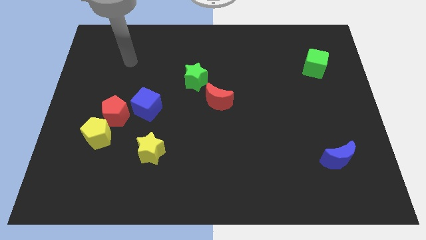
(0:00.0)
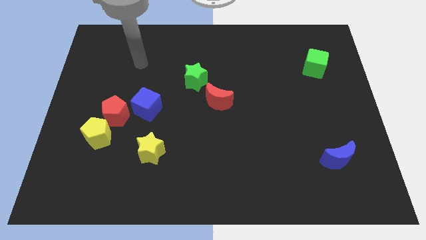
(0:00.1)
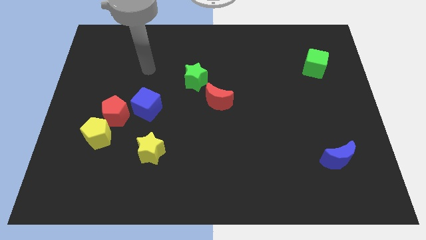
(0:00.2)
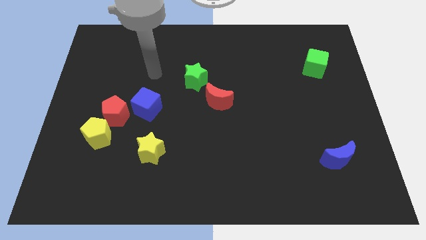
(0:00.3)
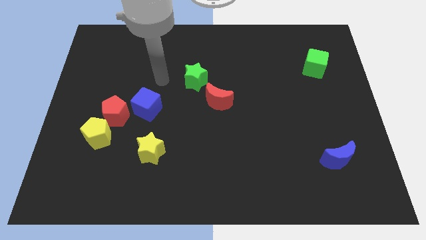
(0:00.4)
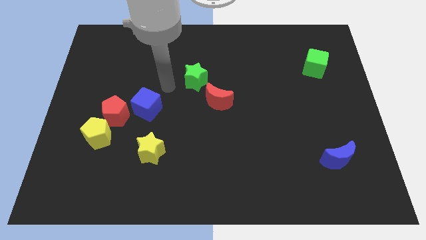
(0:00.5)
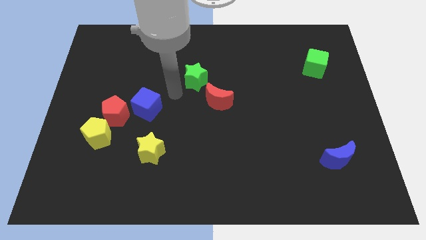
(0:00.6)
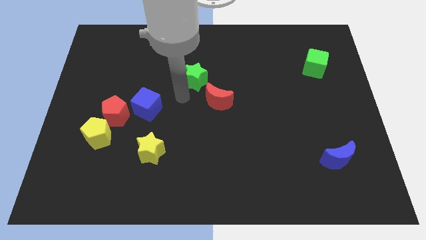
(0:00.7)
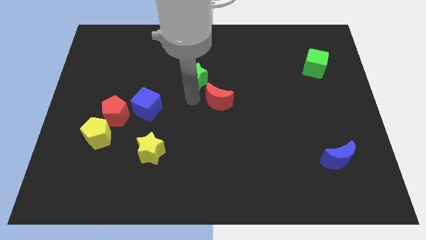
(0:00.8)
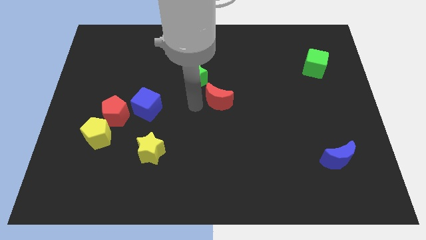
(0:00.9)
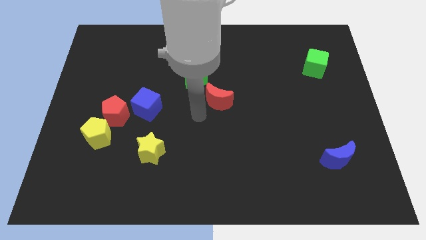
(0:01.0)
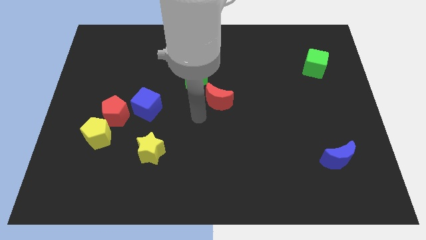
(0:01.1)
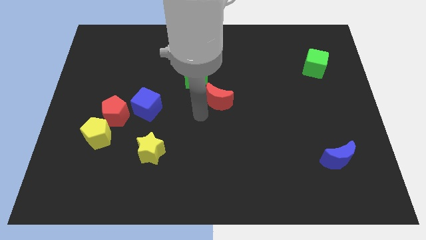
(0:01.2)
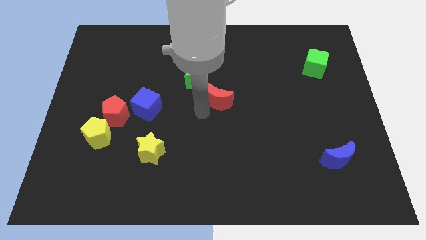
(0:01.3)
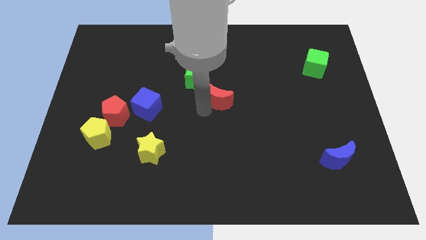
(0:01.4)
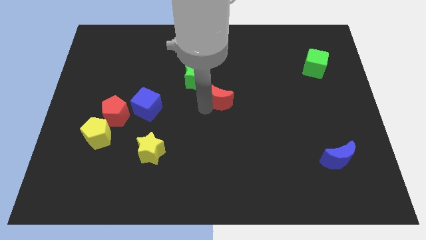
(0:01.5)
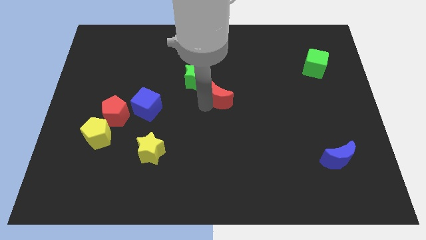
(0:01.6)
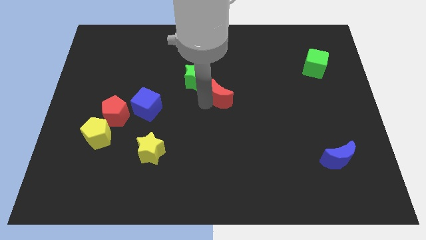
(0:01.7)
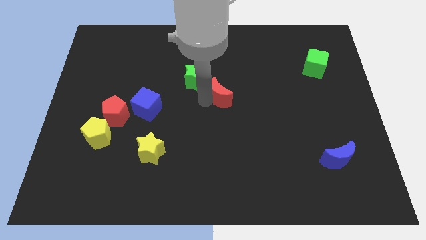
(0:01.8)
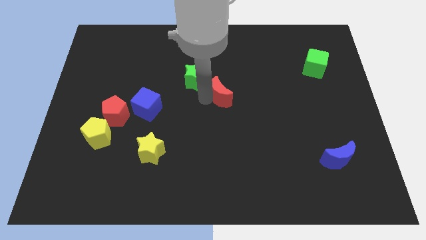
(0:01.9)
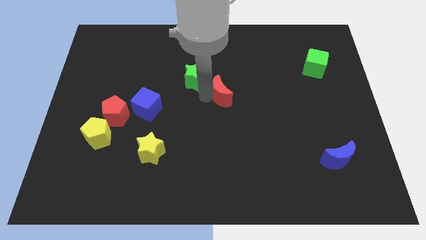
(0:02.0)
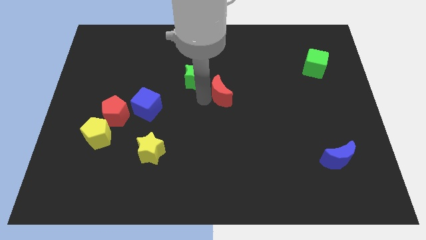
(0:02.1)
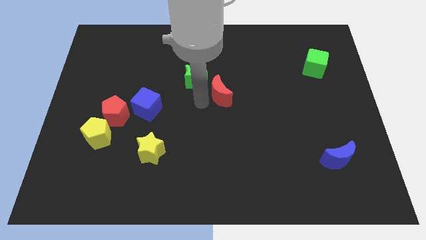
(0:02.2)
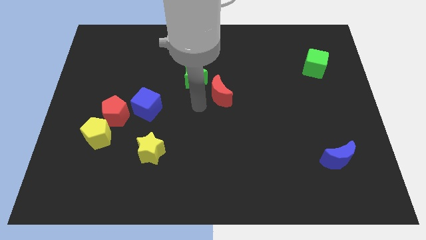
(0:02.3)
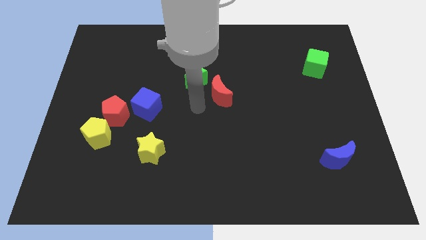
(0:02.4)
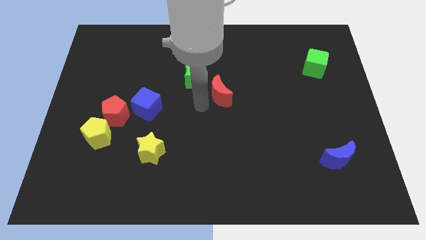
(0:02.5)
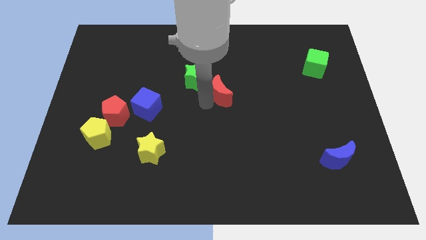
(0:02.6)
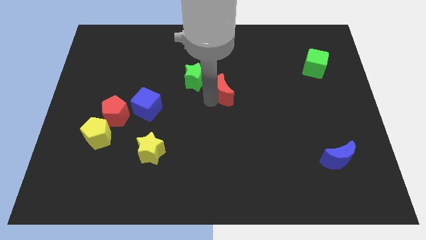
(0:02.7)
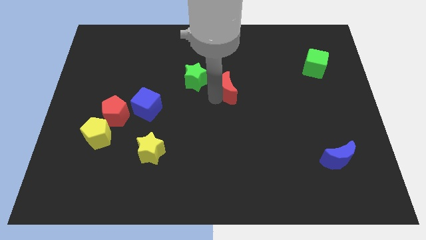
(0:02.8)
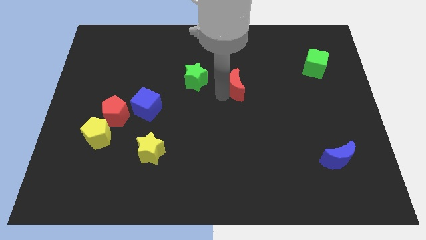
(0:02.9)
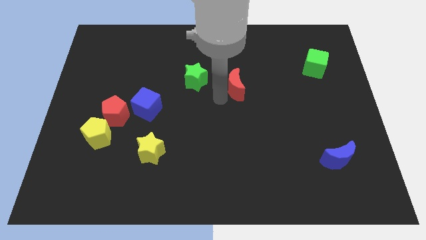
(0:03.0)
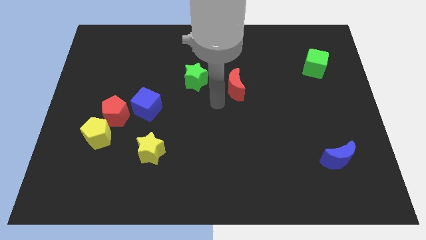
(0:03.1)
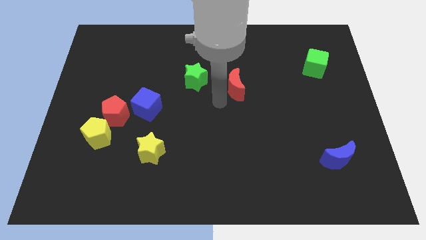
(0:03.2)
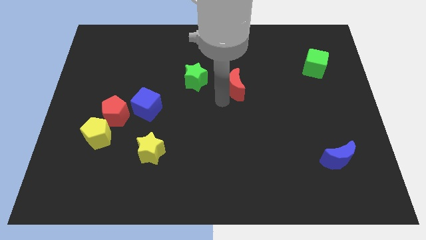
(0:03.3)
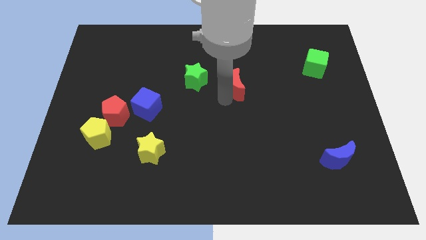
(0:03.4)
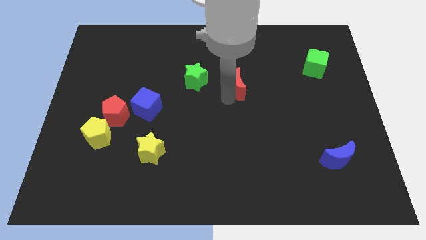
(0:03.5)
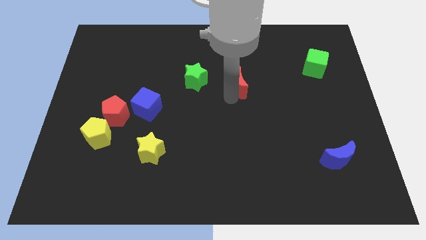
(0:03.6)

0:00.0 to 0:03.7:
push the red moon diagonally upwards and right a little

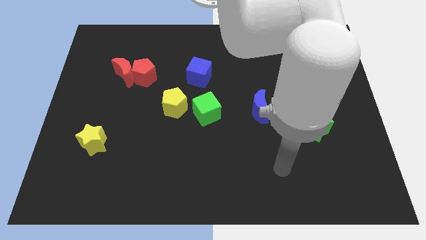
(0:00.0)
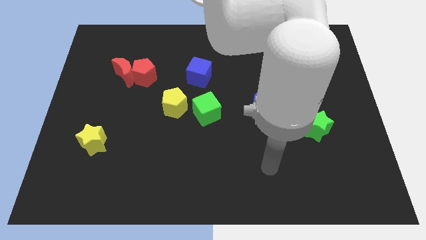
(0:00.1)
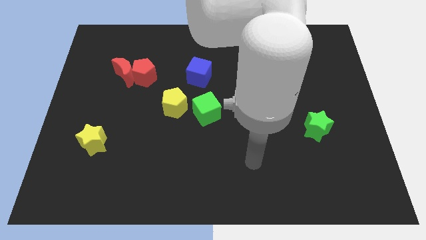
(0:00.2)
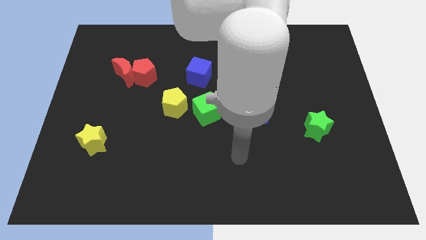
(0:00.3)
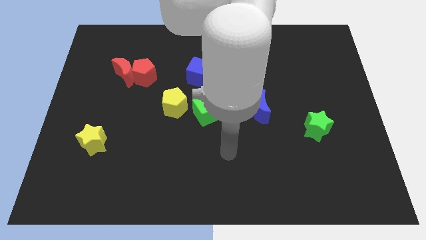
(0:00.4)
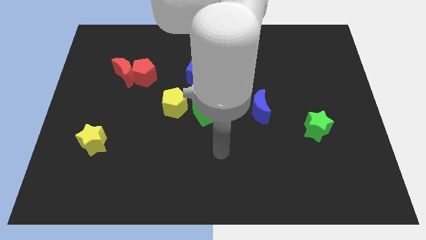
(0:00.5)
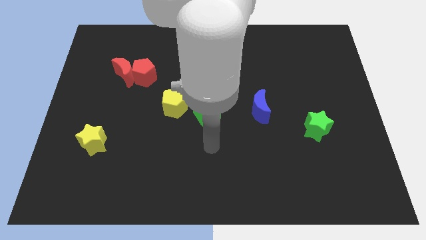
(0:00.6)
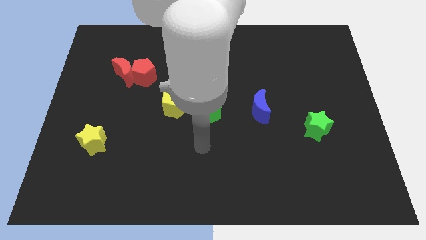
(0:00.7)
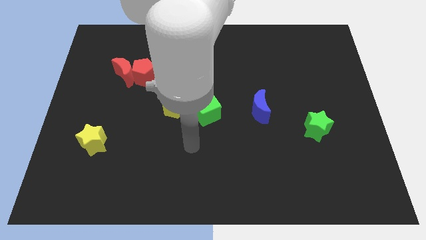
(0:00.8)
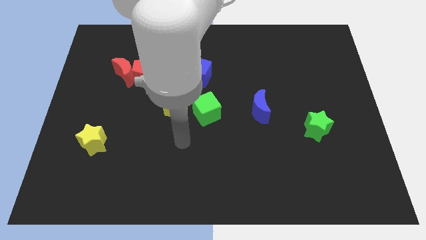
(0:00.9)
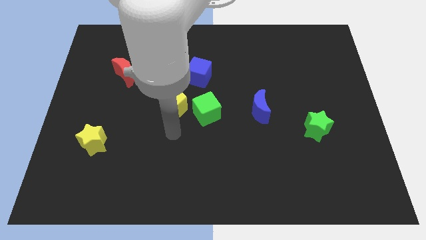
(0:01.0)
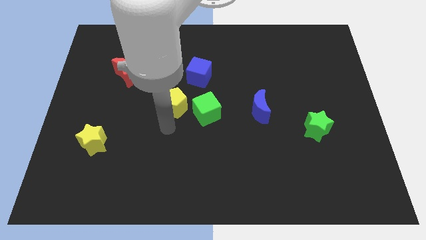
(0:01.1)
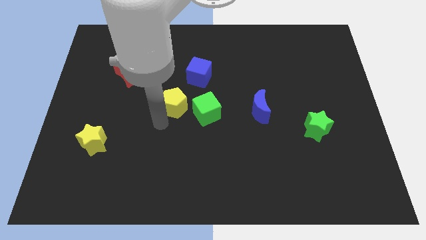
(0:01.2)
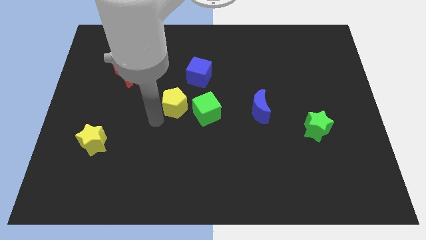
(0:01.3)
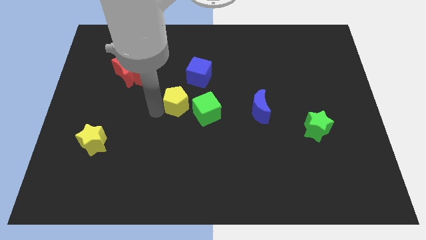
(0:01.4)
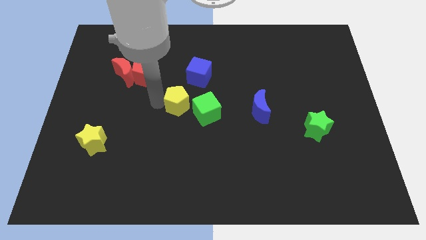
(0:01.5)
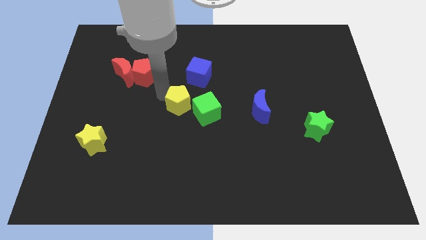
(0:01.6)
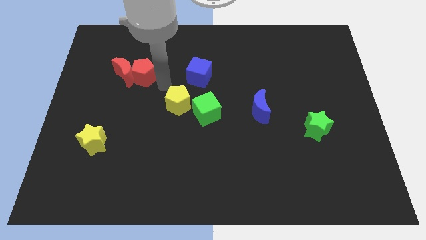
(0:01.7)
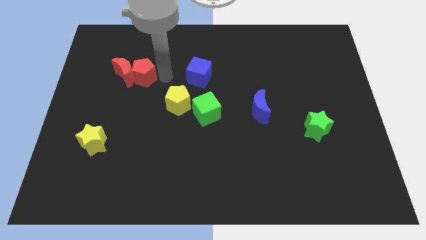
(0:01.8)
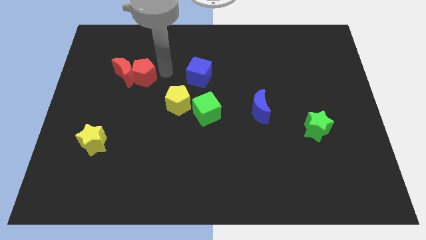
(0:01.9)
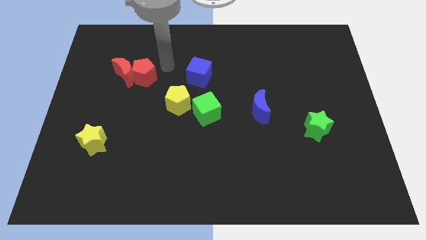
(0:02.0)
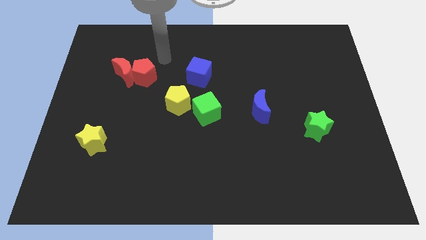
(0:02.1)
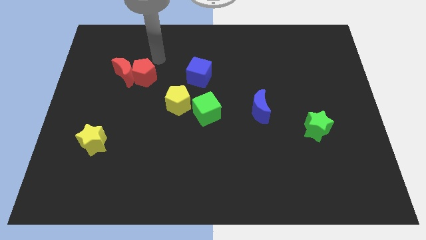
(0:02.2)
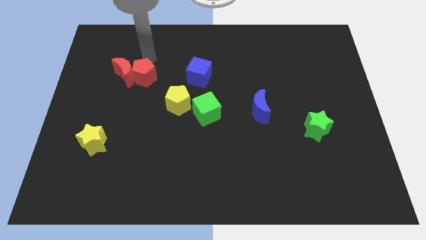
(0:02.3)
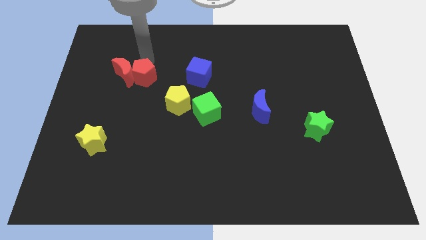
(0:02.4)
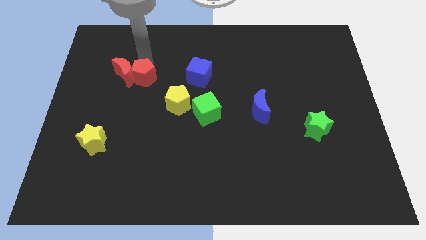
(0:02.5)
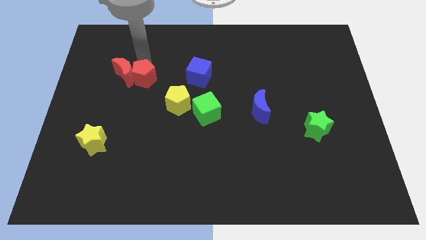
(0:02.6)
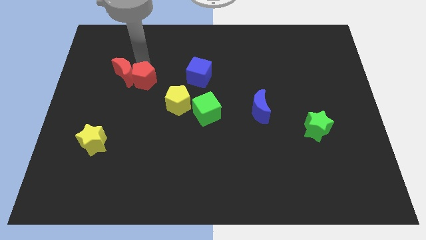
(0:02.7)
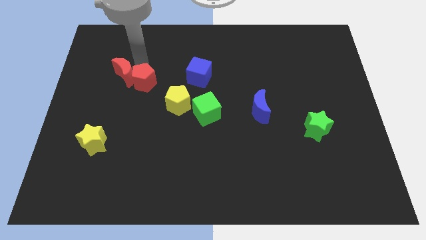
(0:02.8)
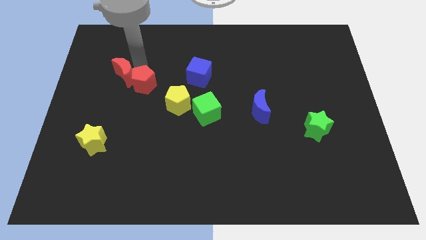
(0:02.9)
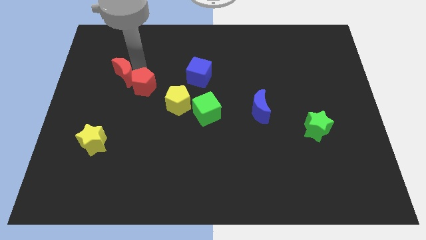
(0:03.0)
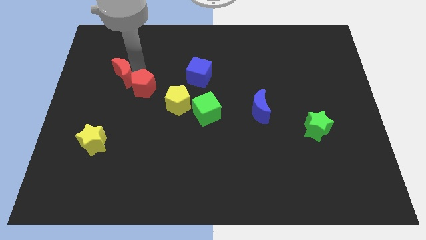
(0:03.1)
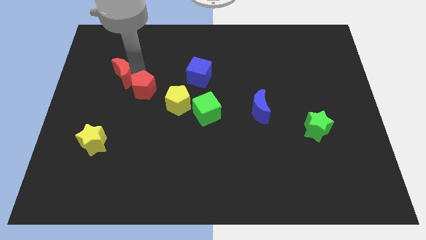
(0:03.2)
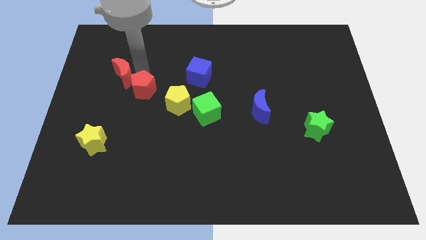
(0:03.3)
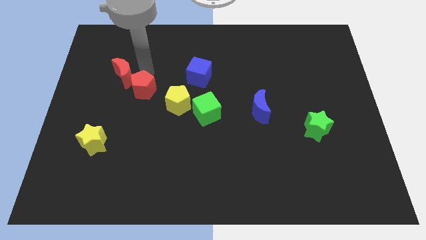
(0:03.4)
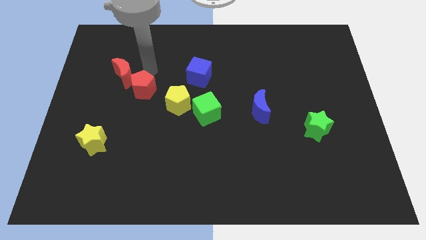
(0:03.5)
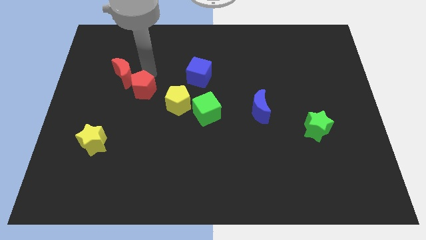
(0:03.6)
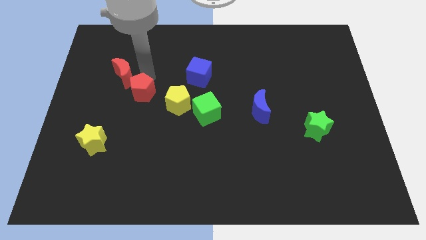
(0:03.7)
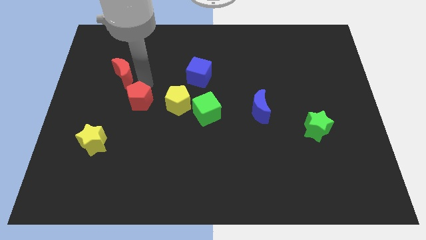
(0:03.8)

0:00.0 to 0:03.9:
slightly move the red pentagon down

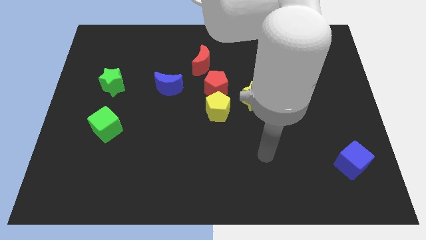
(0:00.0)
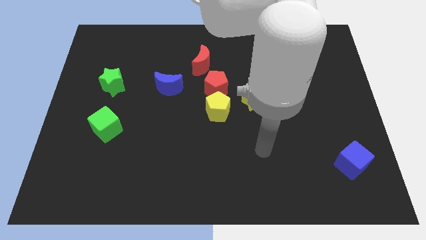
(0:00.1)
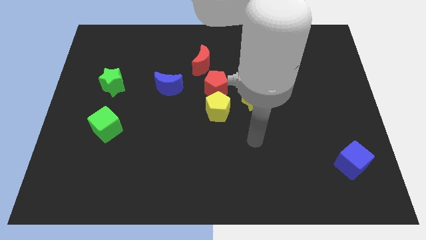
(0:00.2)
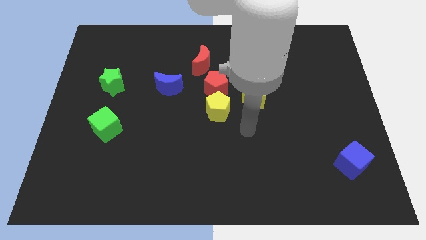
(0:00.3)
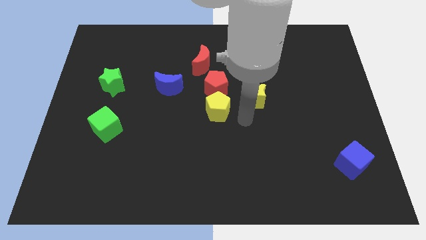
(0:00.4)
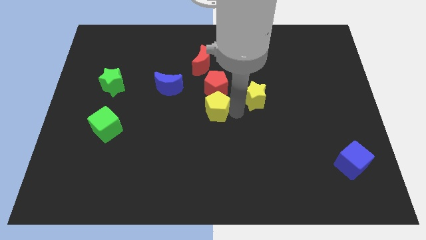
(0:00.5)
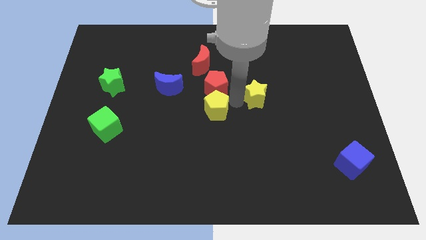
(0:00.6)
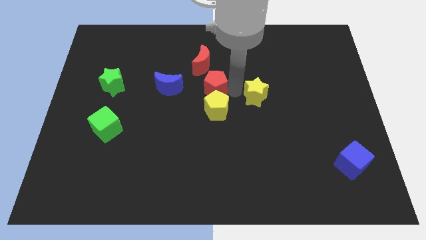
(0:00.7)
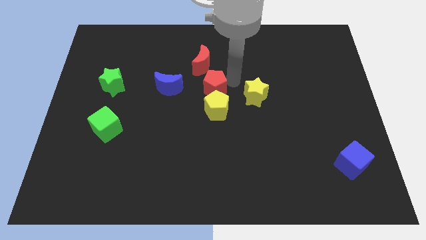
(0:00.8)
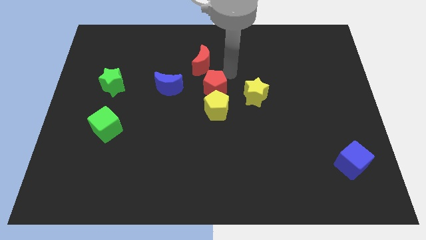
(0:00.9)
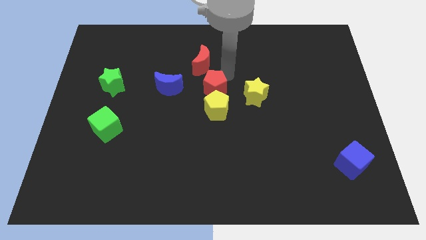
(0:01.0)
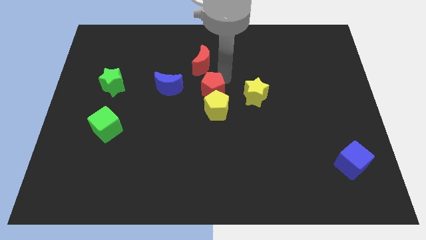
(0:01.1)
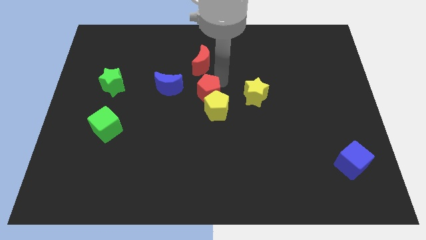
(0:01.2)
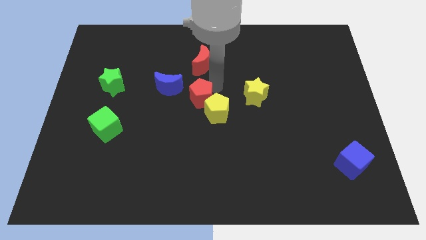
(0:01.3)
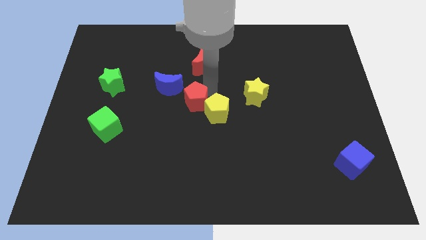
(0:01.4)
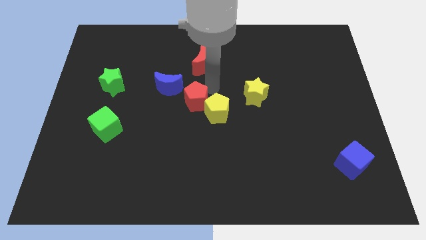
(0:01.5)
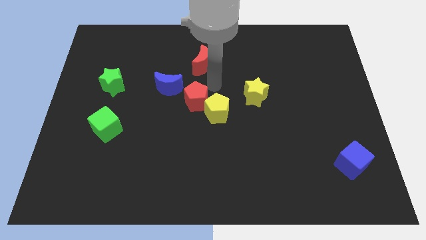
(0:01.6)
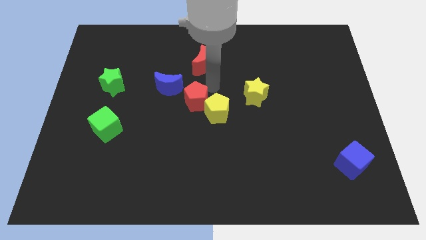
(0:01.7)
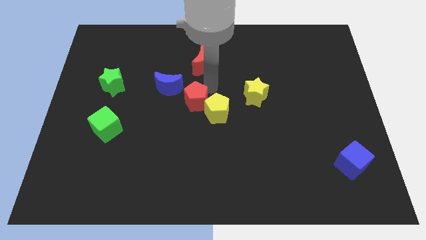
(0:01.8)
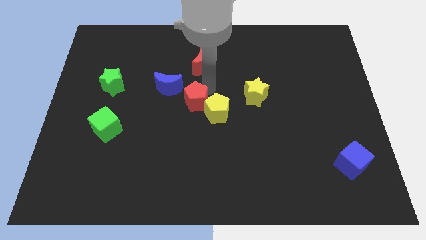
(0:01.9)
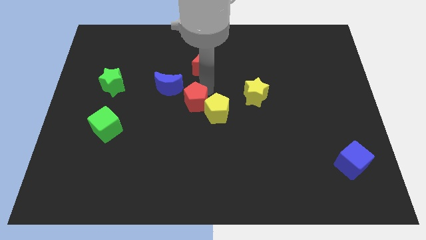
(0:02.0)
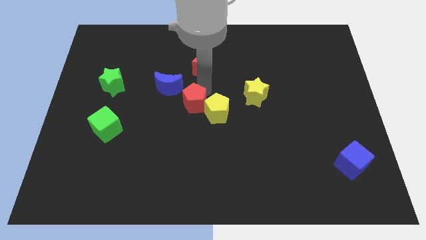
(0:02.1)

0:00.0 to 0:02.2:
move the red pentagon a little down and left
